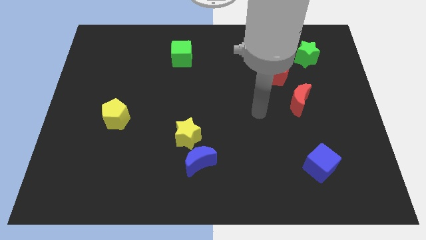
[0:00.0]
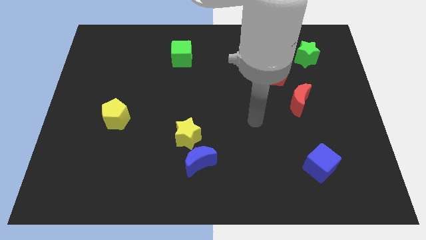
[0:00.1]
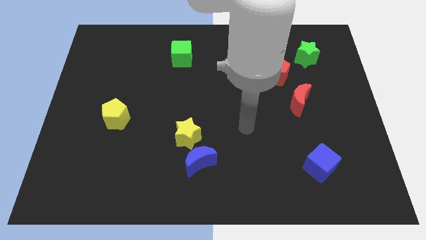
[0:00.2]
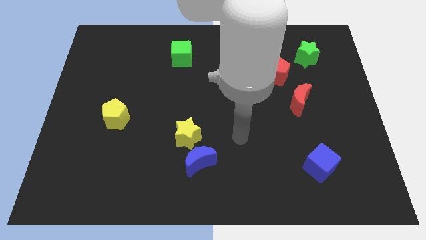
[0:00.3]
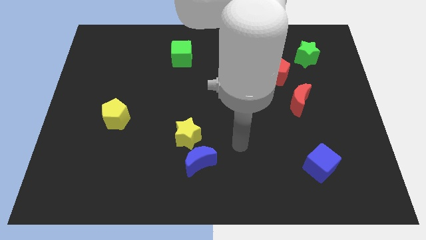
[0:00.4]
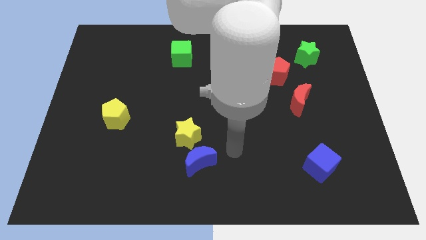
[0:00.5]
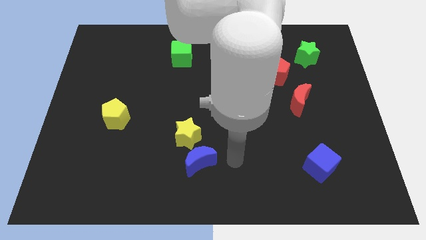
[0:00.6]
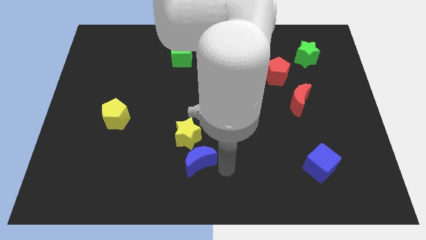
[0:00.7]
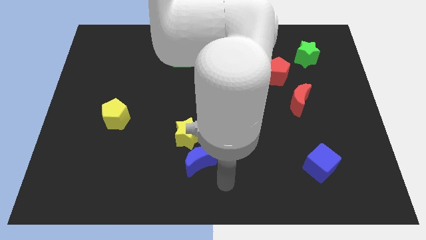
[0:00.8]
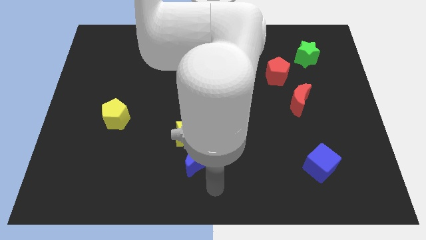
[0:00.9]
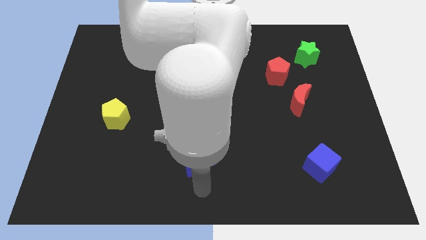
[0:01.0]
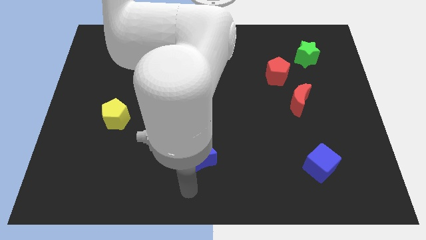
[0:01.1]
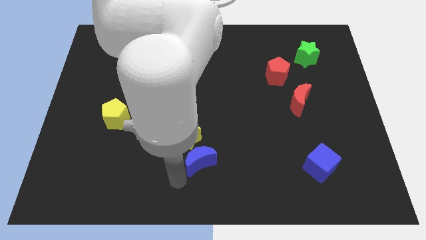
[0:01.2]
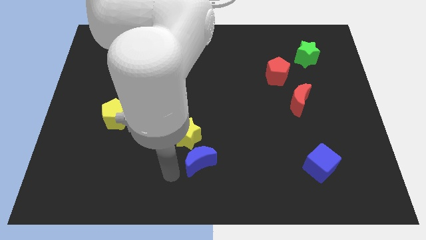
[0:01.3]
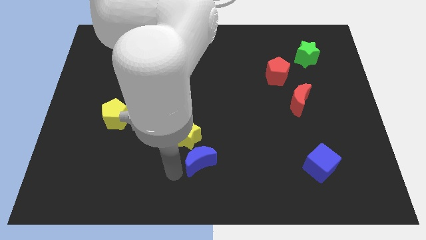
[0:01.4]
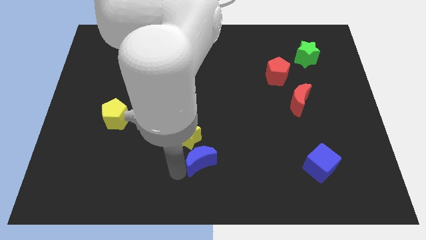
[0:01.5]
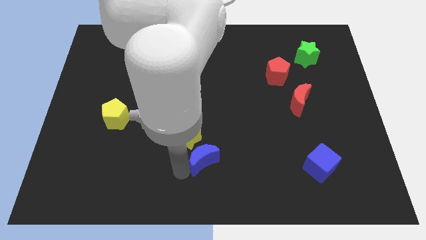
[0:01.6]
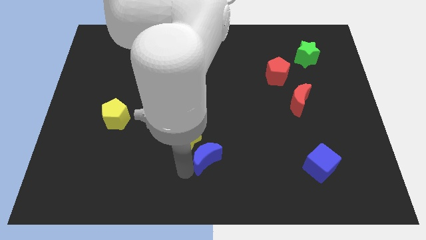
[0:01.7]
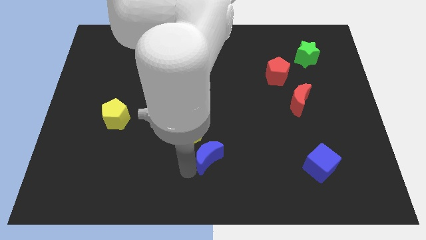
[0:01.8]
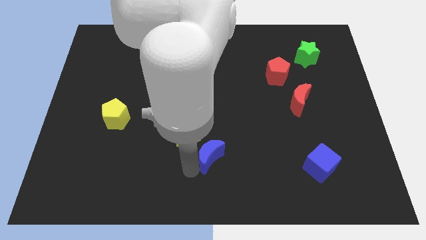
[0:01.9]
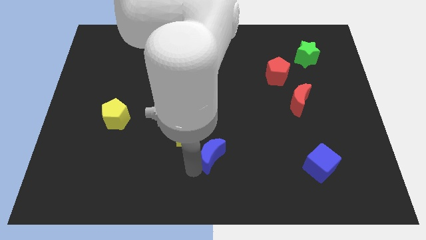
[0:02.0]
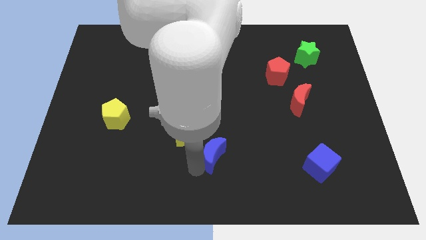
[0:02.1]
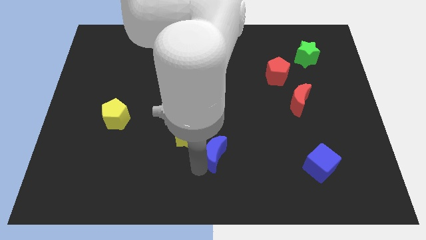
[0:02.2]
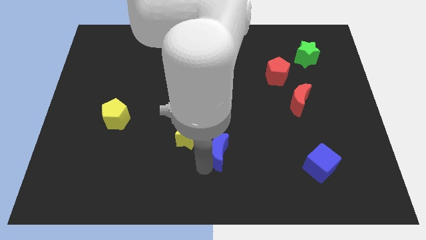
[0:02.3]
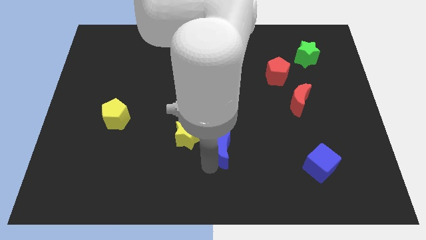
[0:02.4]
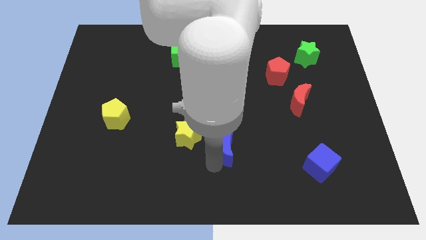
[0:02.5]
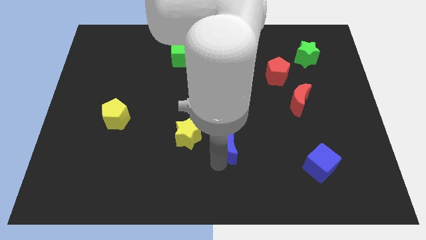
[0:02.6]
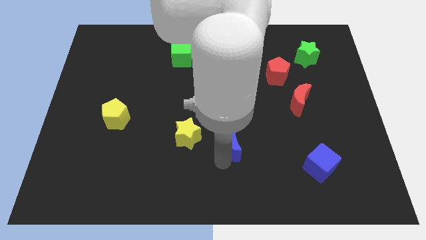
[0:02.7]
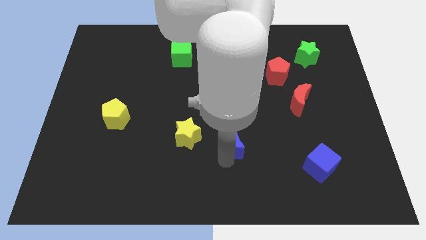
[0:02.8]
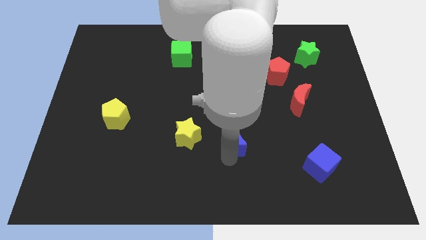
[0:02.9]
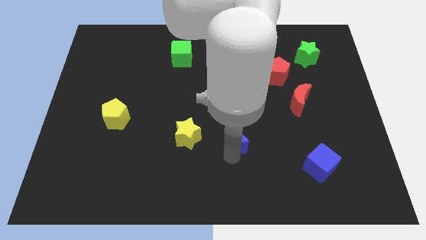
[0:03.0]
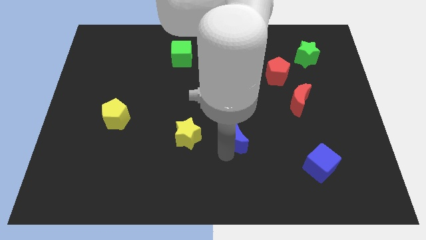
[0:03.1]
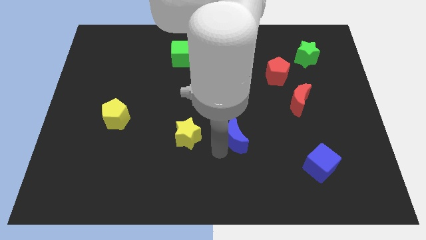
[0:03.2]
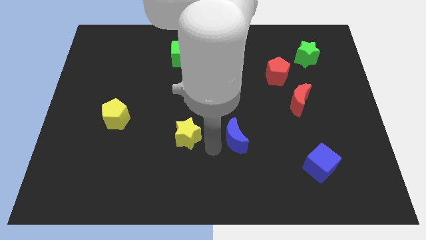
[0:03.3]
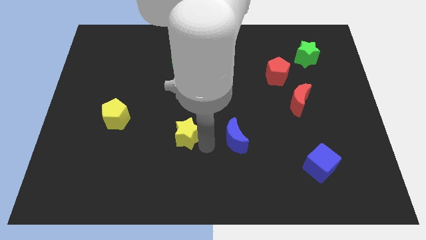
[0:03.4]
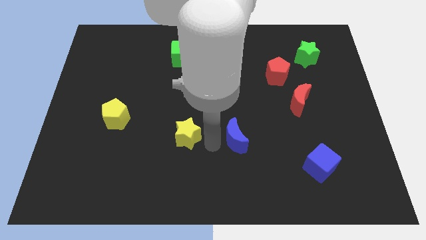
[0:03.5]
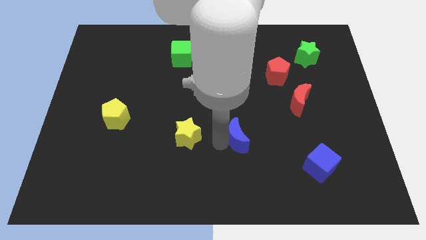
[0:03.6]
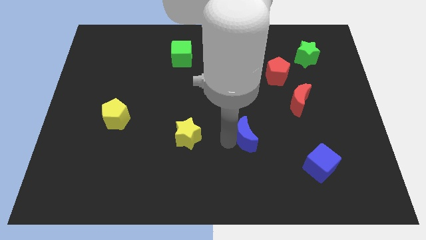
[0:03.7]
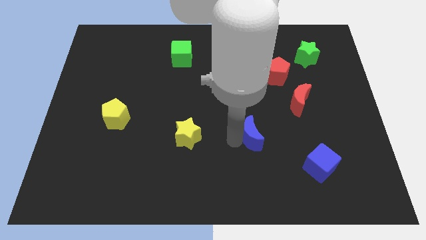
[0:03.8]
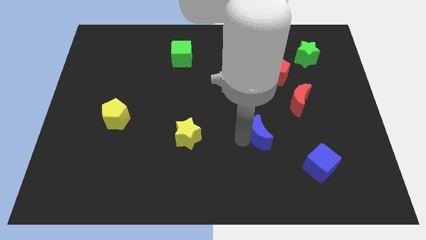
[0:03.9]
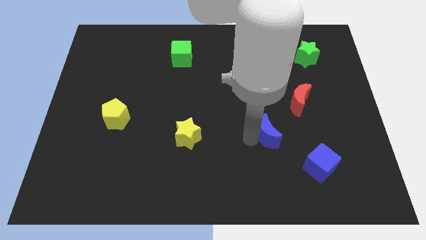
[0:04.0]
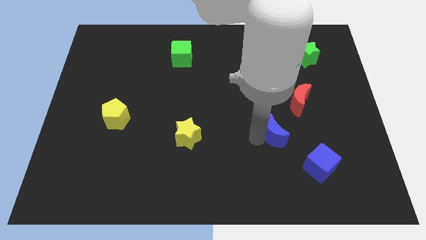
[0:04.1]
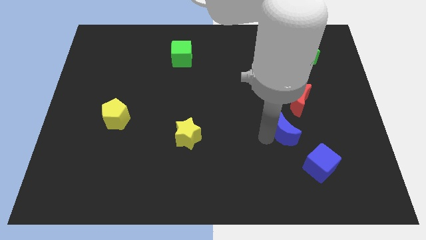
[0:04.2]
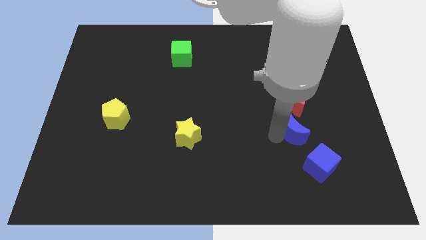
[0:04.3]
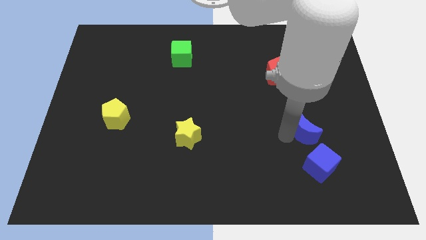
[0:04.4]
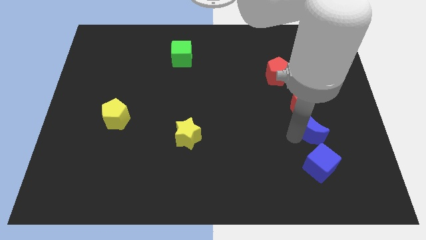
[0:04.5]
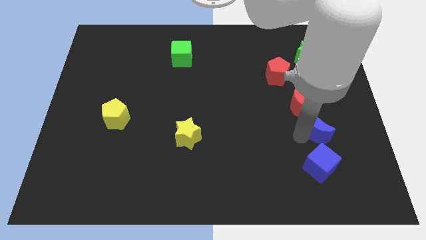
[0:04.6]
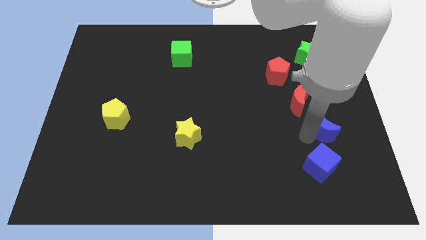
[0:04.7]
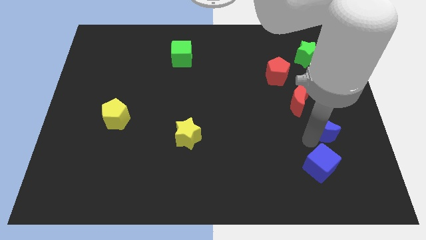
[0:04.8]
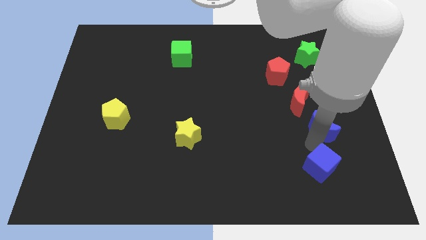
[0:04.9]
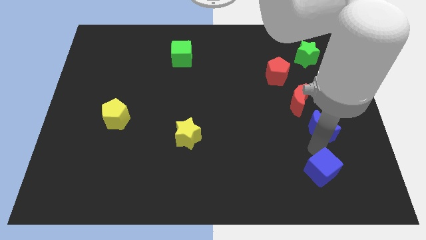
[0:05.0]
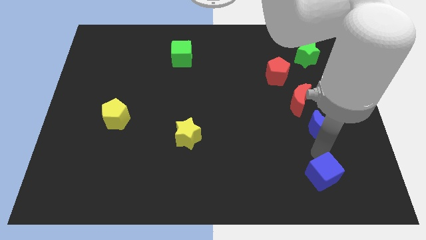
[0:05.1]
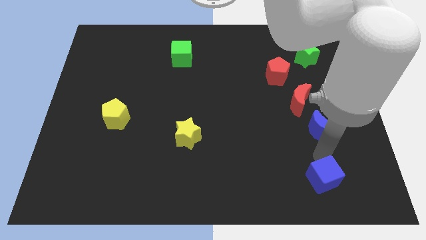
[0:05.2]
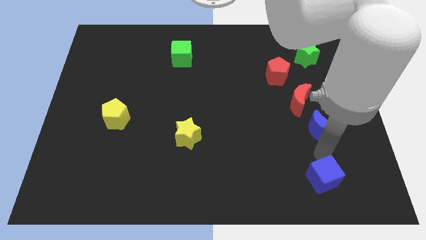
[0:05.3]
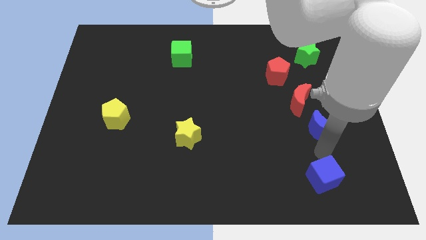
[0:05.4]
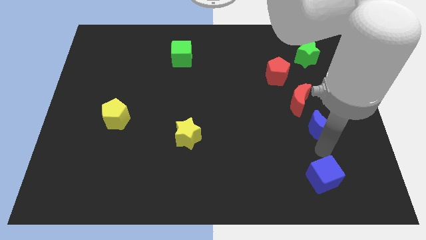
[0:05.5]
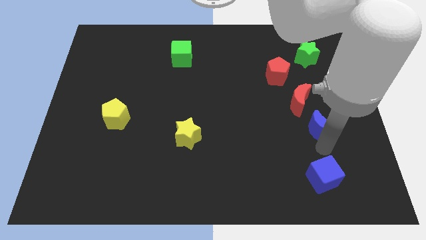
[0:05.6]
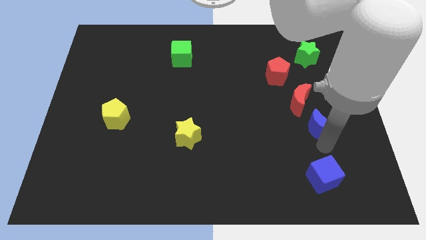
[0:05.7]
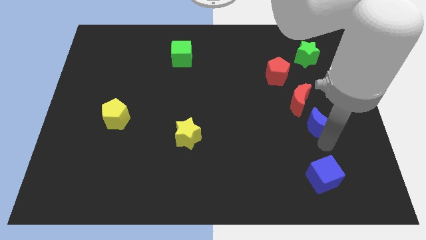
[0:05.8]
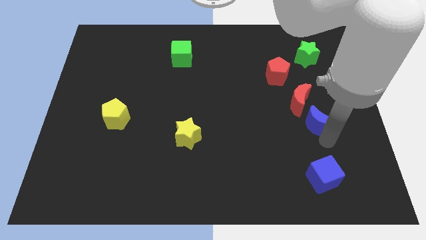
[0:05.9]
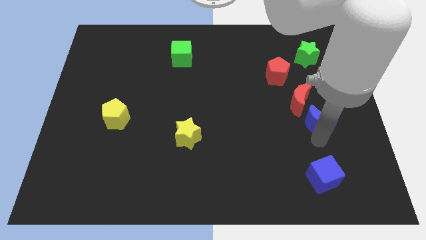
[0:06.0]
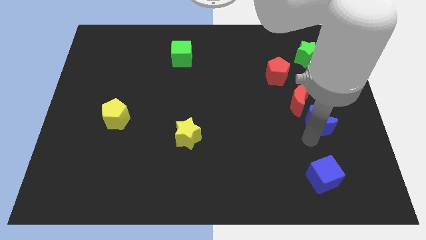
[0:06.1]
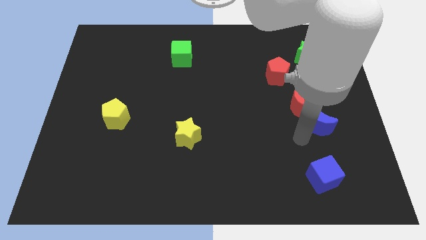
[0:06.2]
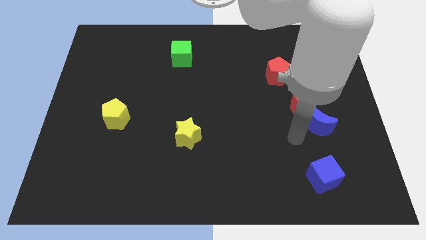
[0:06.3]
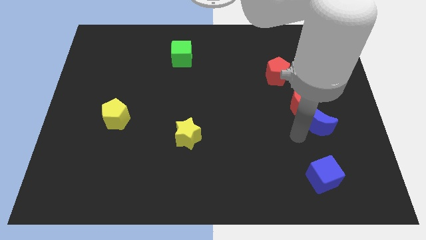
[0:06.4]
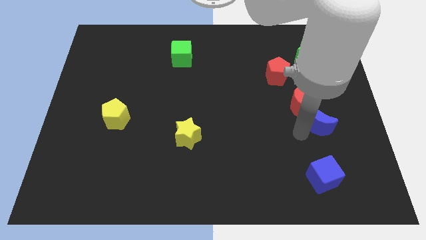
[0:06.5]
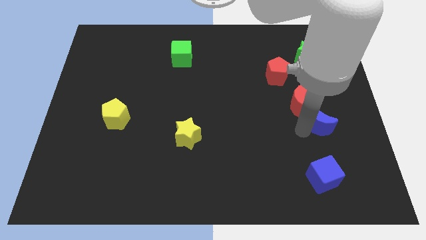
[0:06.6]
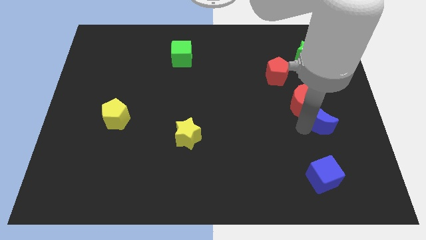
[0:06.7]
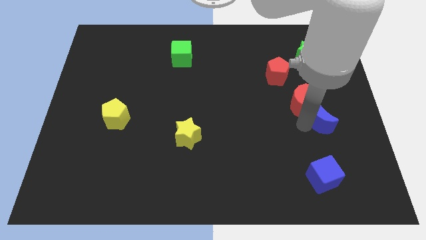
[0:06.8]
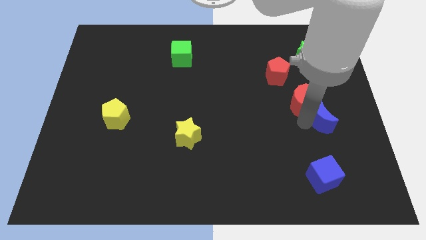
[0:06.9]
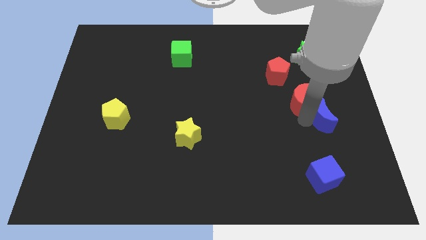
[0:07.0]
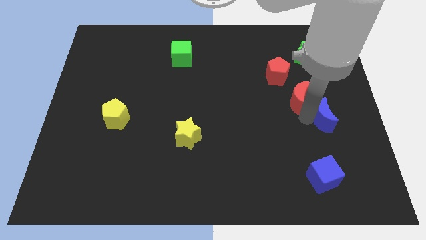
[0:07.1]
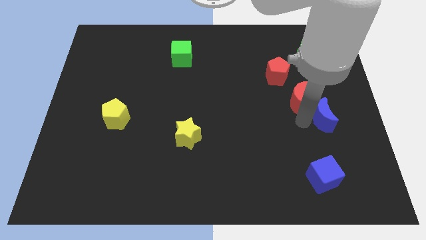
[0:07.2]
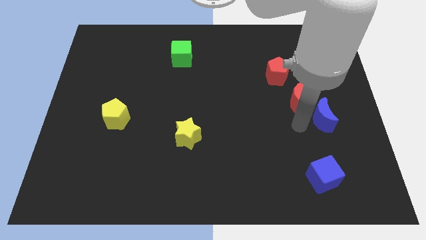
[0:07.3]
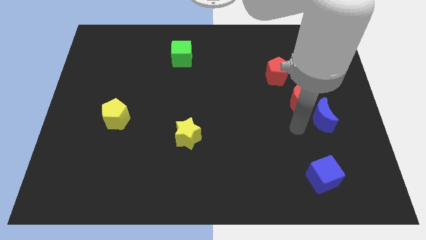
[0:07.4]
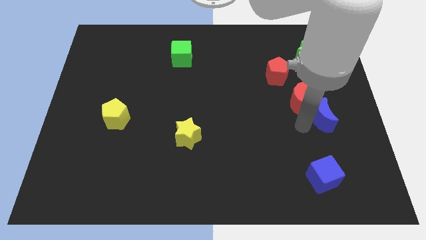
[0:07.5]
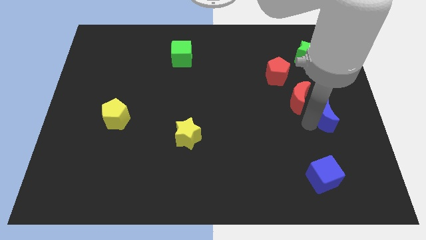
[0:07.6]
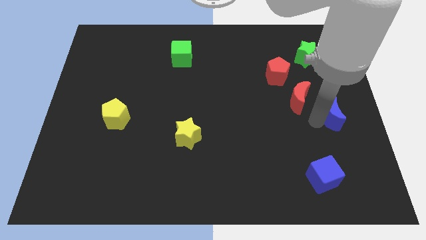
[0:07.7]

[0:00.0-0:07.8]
slide the blue moon to the right side
